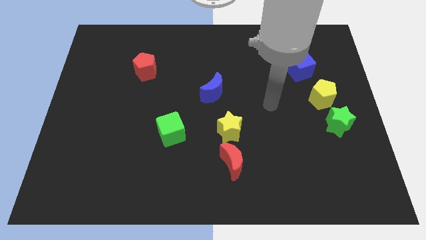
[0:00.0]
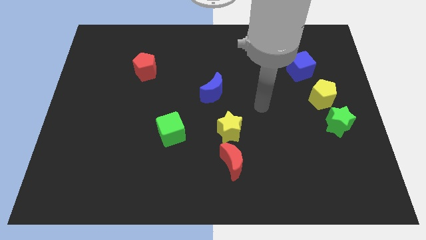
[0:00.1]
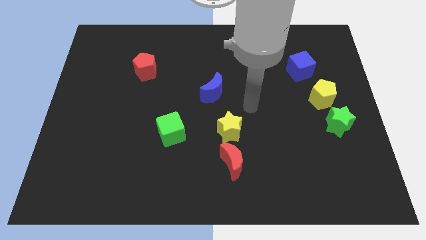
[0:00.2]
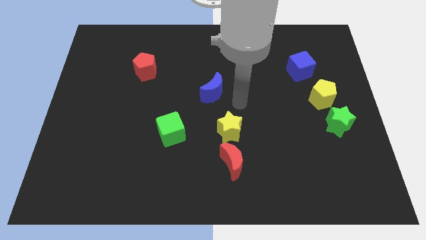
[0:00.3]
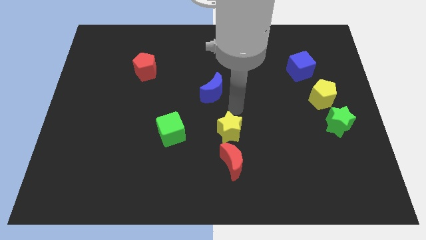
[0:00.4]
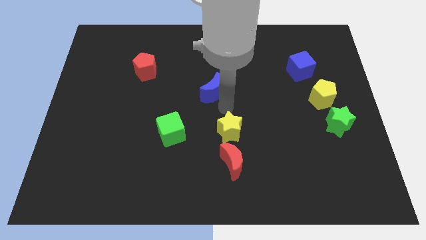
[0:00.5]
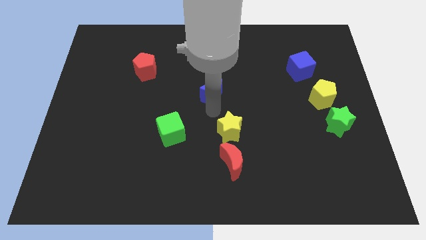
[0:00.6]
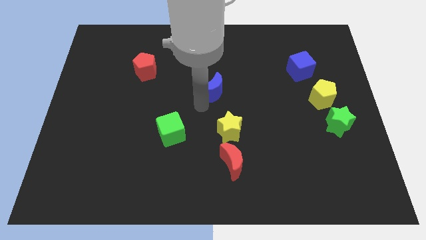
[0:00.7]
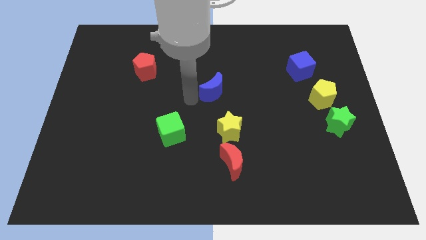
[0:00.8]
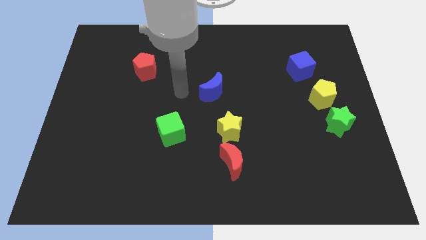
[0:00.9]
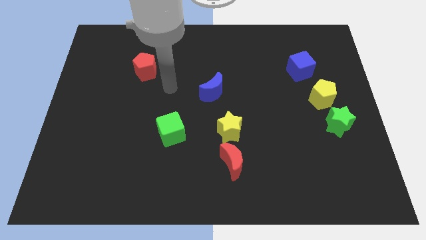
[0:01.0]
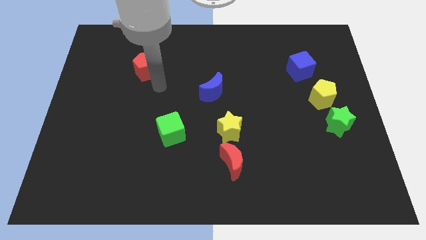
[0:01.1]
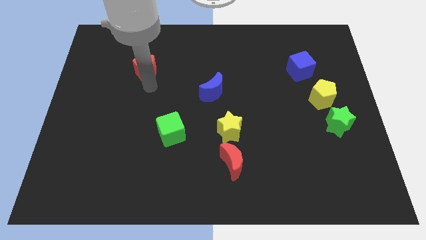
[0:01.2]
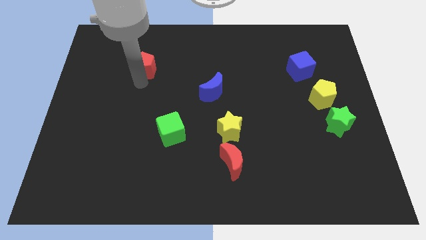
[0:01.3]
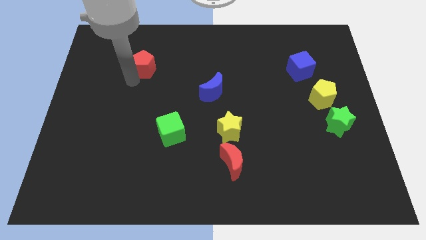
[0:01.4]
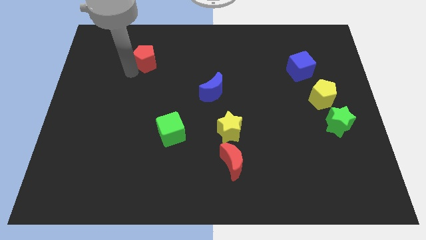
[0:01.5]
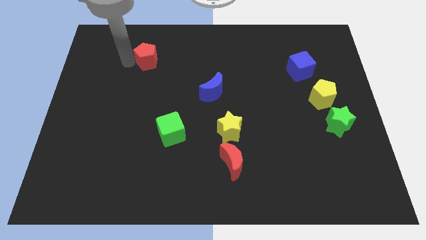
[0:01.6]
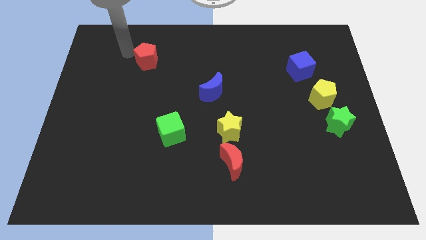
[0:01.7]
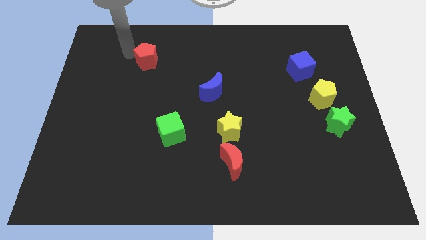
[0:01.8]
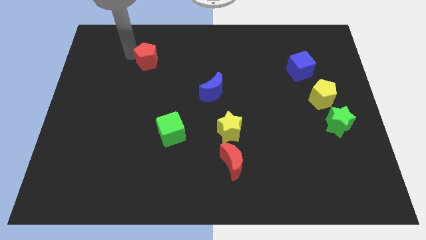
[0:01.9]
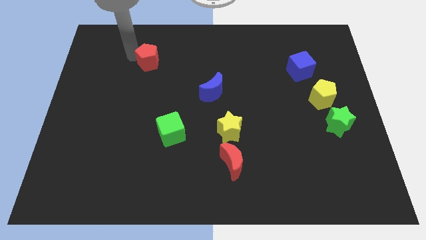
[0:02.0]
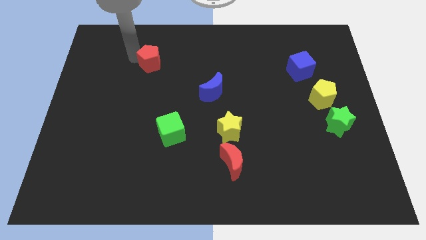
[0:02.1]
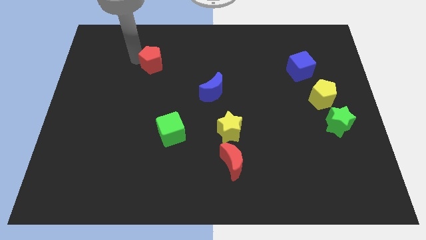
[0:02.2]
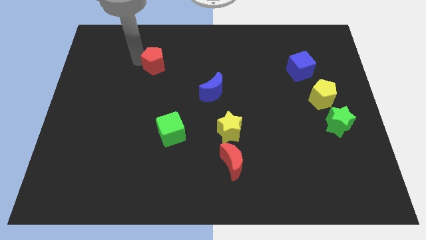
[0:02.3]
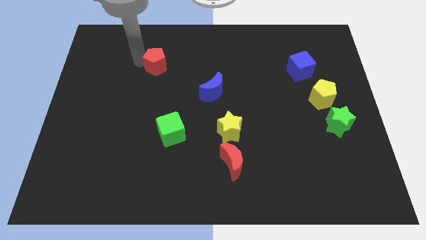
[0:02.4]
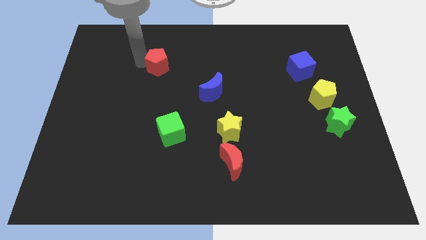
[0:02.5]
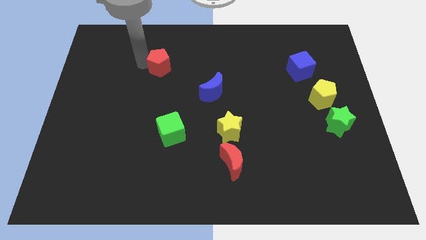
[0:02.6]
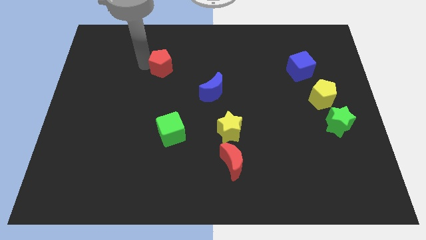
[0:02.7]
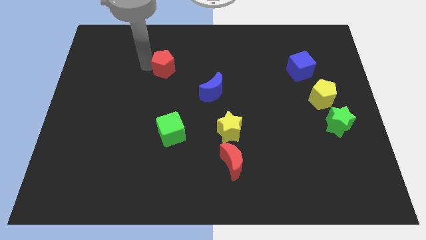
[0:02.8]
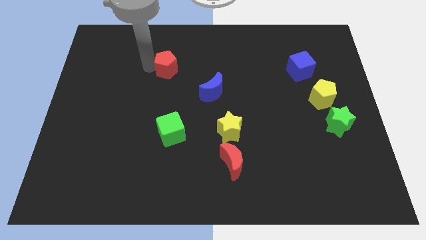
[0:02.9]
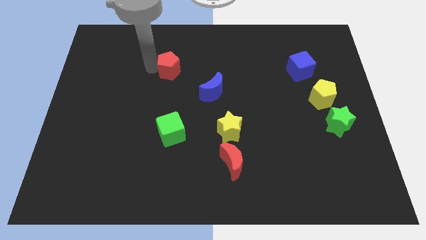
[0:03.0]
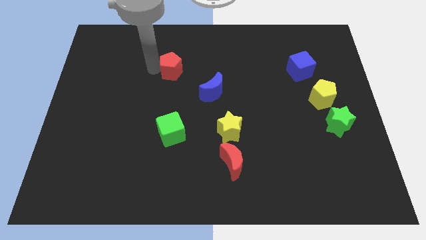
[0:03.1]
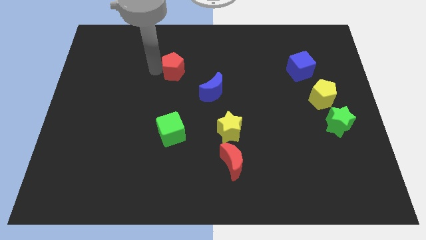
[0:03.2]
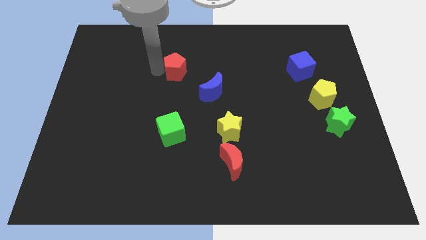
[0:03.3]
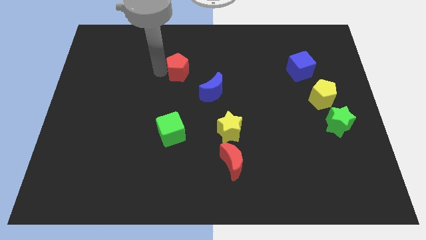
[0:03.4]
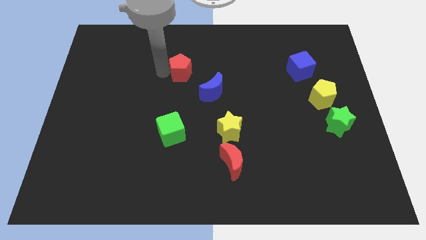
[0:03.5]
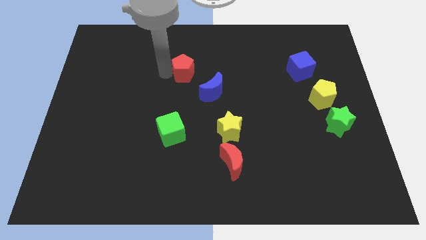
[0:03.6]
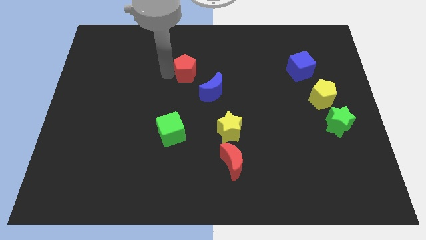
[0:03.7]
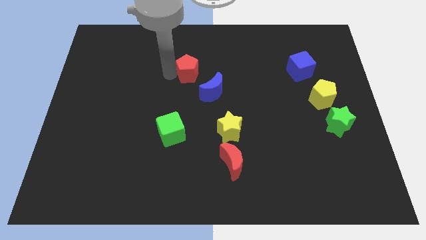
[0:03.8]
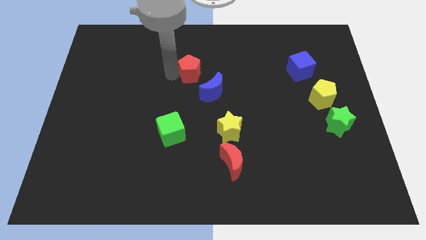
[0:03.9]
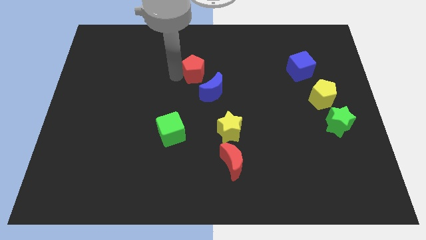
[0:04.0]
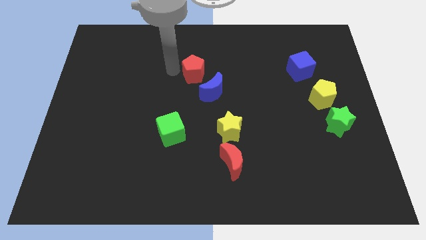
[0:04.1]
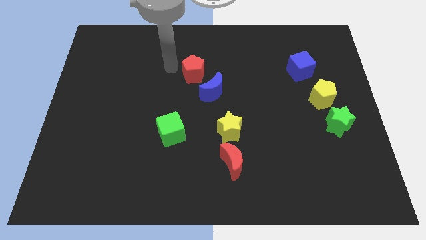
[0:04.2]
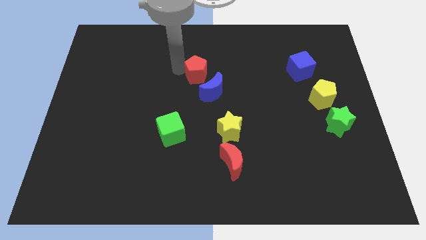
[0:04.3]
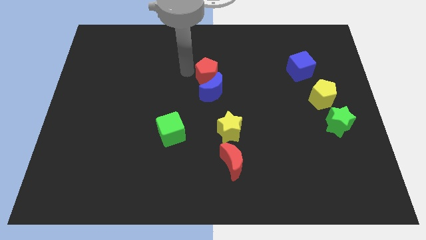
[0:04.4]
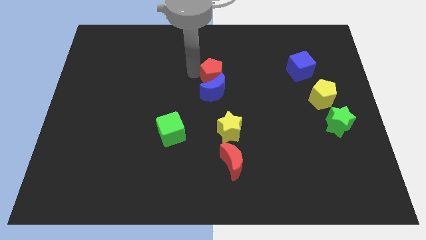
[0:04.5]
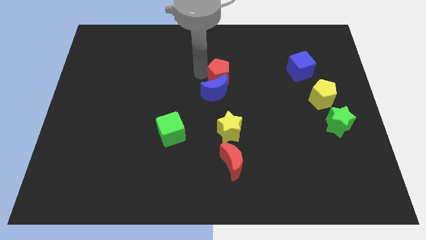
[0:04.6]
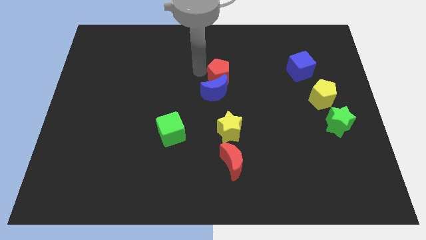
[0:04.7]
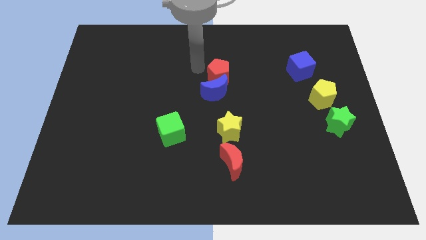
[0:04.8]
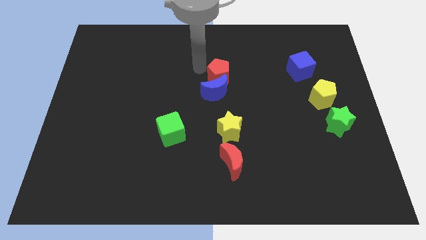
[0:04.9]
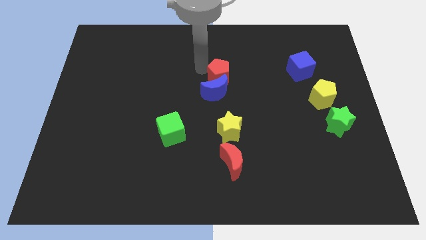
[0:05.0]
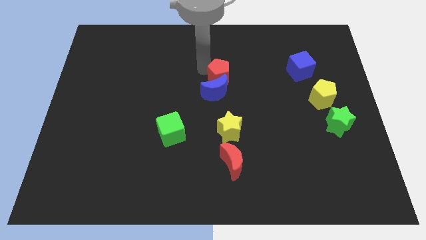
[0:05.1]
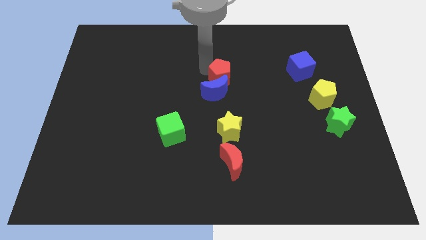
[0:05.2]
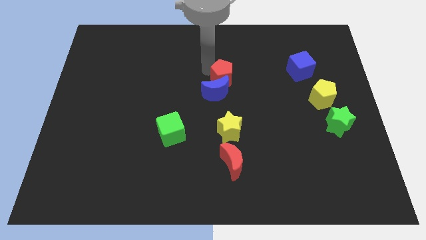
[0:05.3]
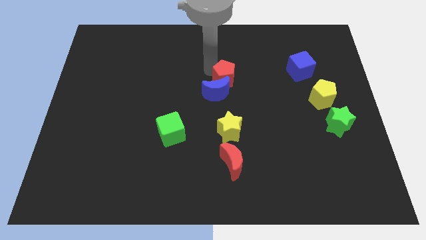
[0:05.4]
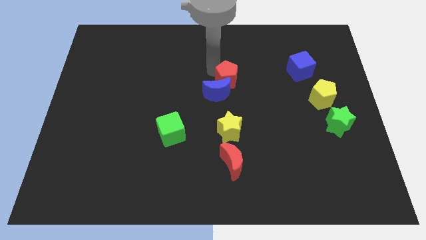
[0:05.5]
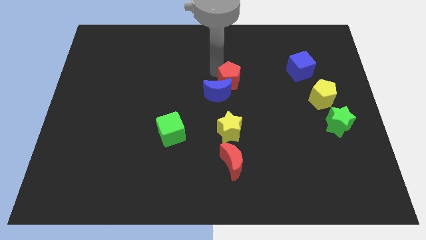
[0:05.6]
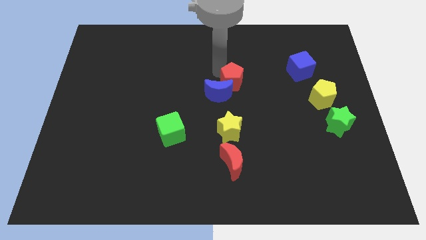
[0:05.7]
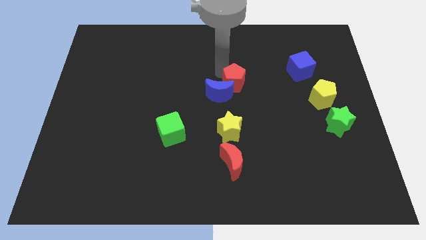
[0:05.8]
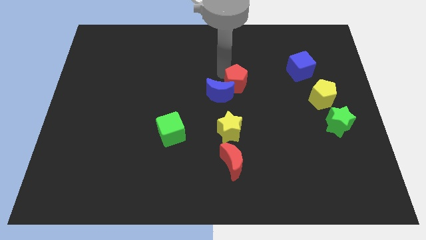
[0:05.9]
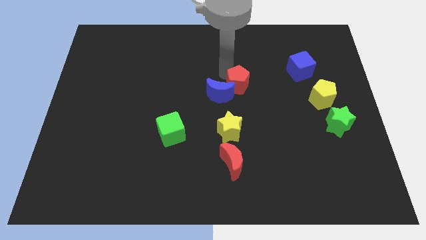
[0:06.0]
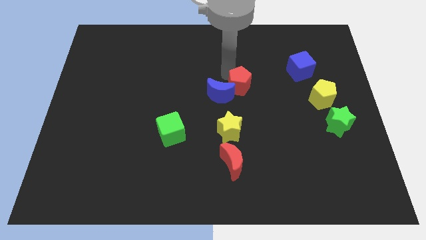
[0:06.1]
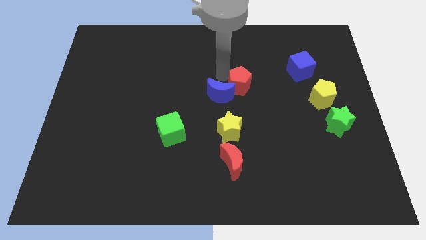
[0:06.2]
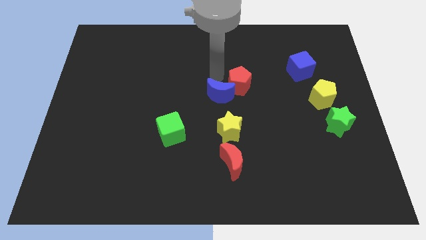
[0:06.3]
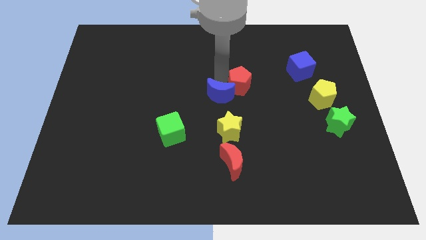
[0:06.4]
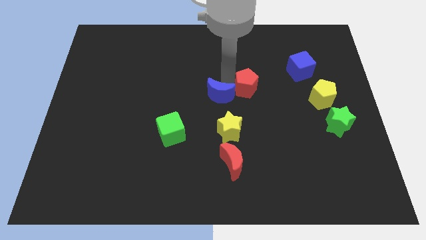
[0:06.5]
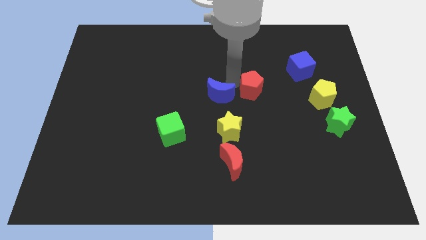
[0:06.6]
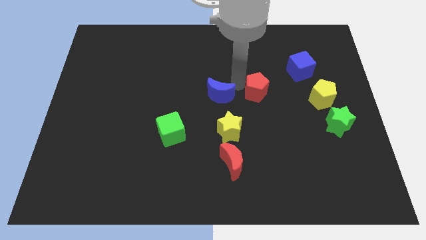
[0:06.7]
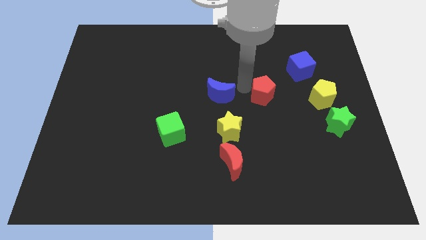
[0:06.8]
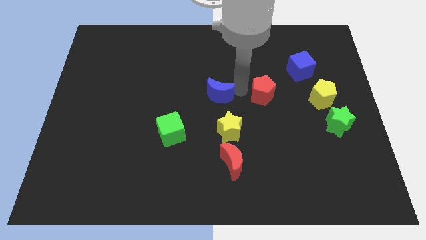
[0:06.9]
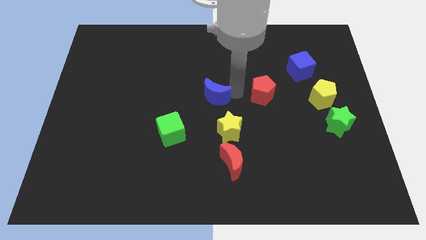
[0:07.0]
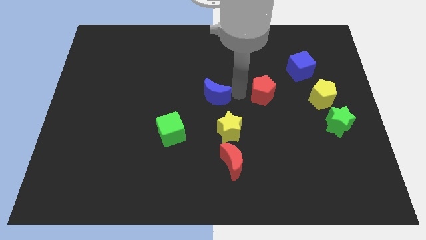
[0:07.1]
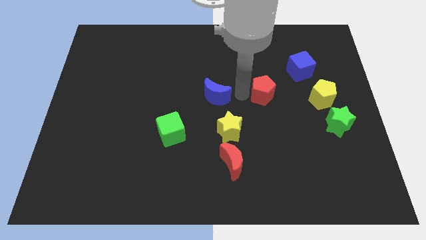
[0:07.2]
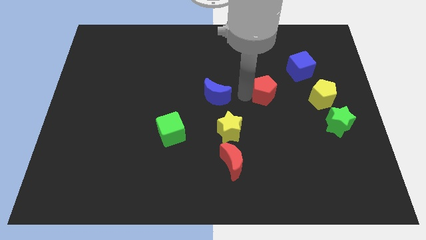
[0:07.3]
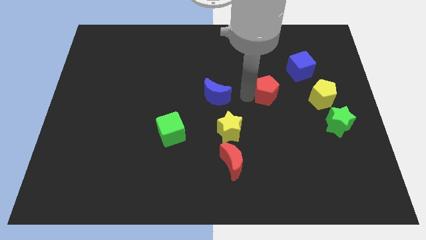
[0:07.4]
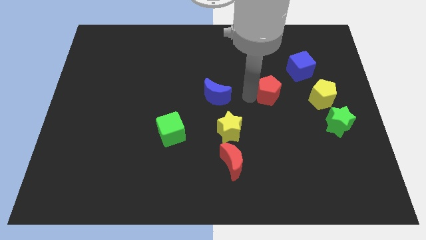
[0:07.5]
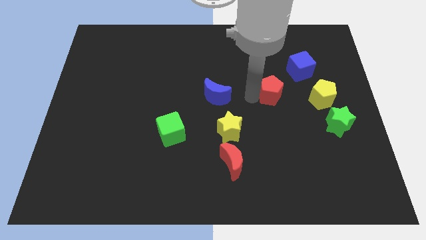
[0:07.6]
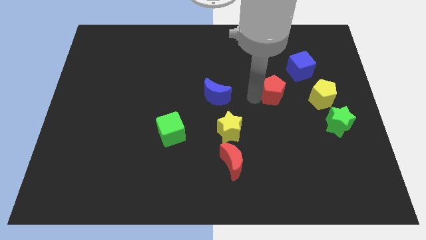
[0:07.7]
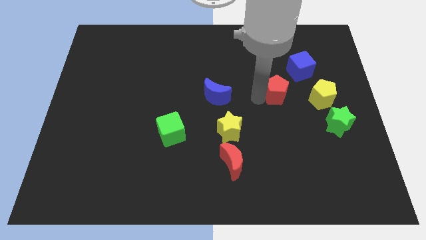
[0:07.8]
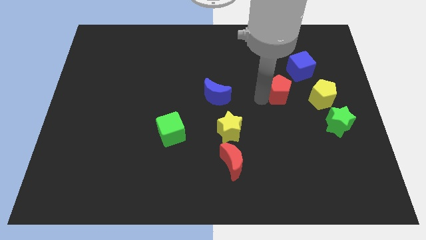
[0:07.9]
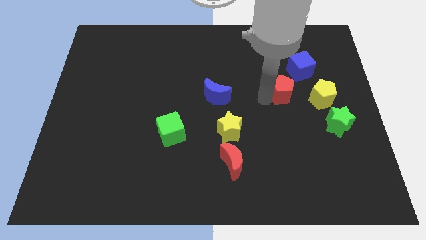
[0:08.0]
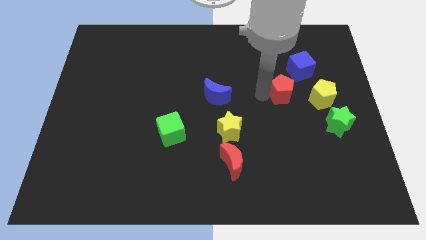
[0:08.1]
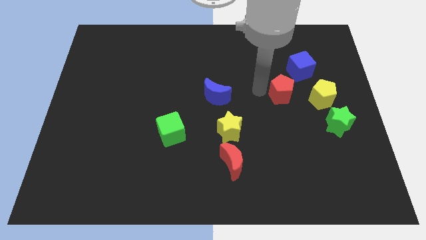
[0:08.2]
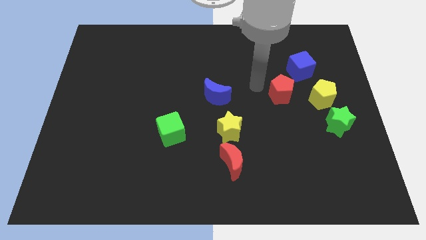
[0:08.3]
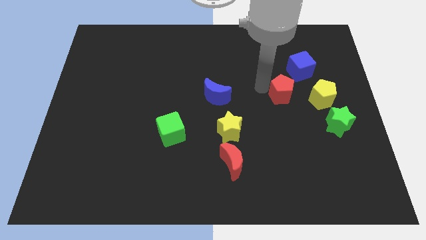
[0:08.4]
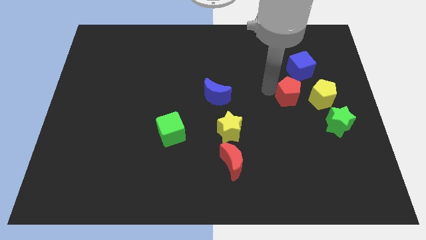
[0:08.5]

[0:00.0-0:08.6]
move the red pentagon below the blue cube
